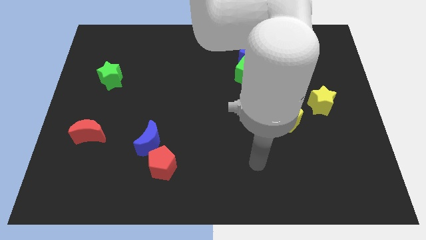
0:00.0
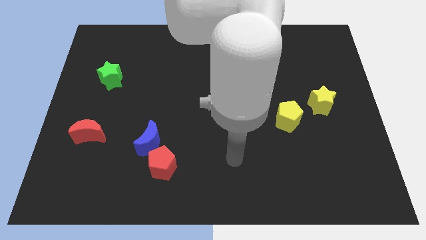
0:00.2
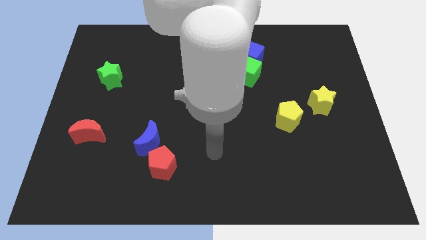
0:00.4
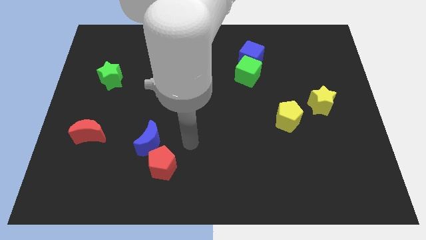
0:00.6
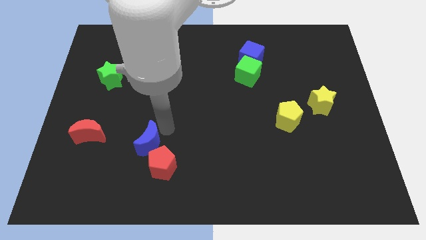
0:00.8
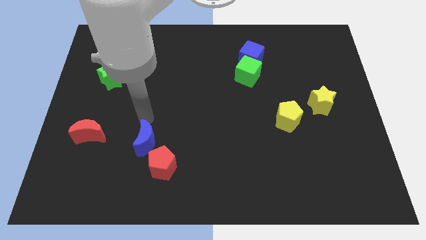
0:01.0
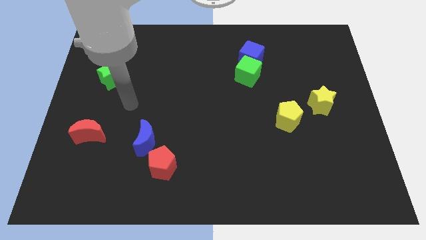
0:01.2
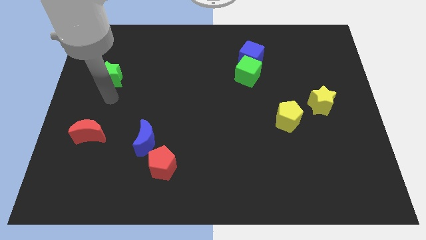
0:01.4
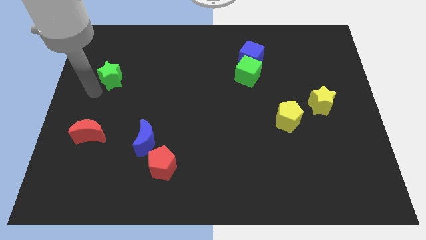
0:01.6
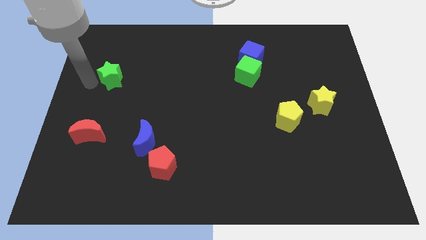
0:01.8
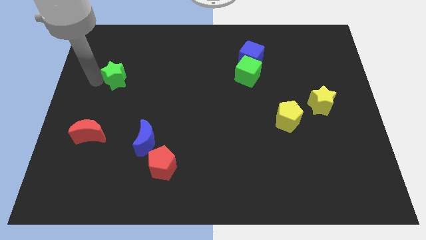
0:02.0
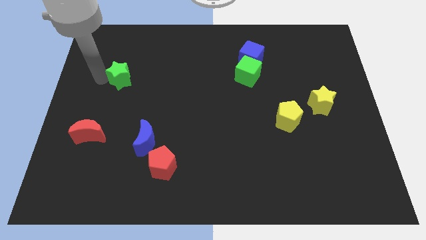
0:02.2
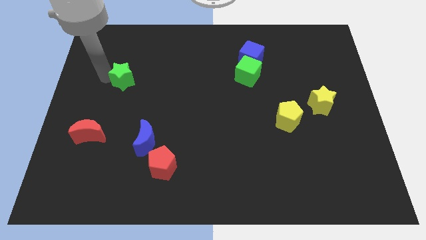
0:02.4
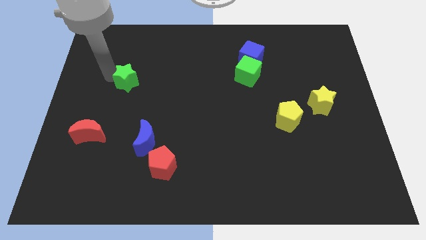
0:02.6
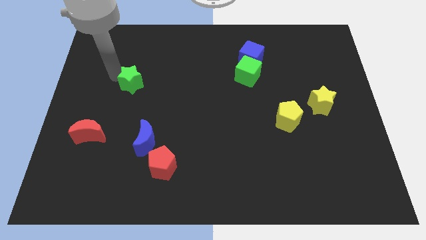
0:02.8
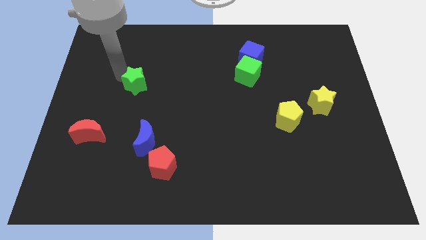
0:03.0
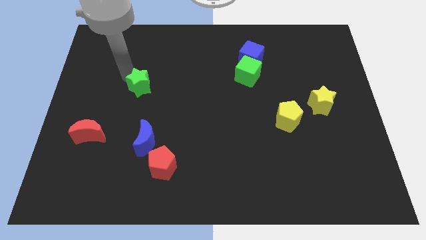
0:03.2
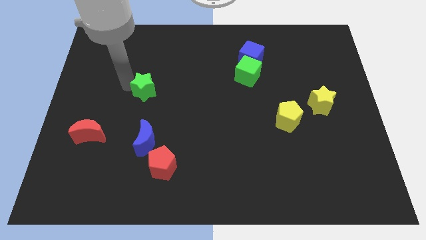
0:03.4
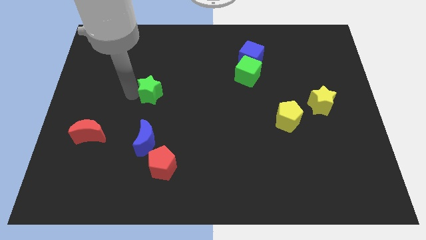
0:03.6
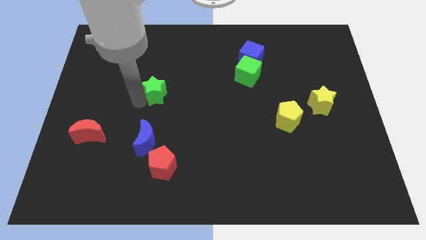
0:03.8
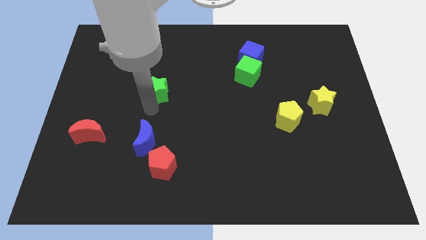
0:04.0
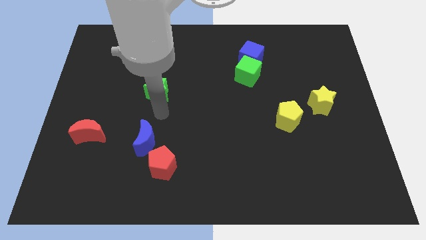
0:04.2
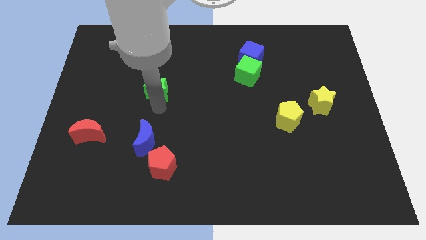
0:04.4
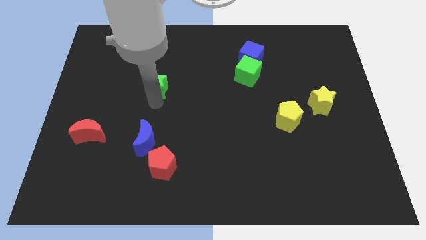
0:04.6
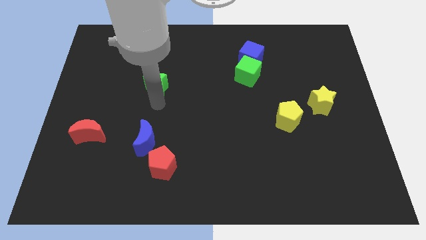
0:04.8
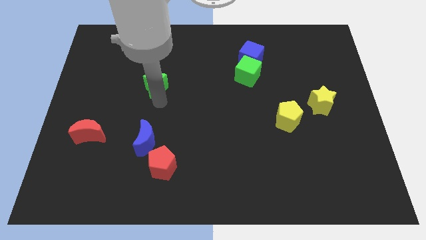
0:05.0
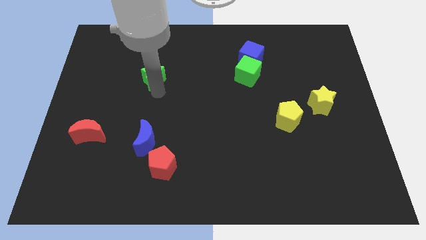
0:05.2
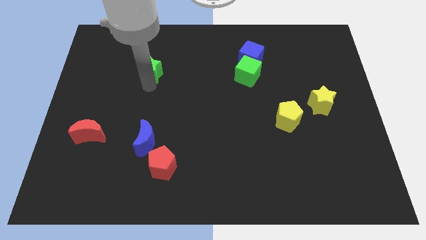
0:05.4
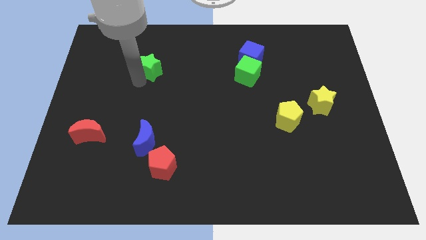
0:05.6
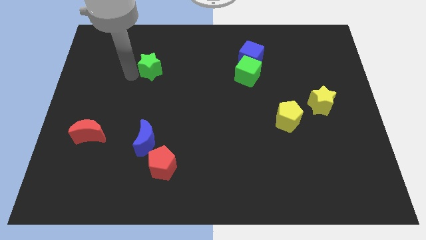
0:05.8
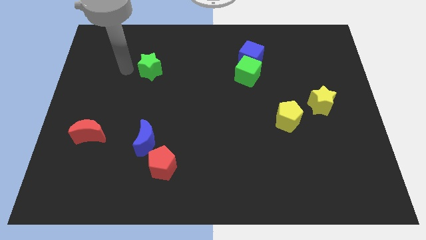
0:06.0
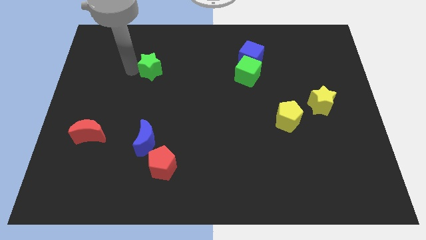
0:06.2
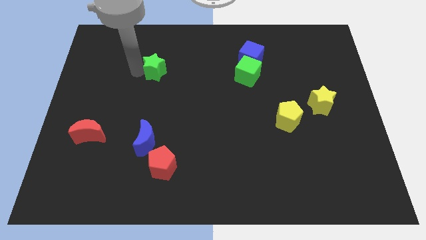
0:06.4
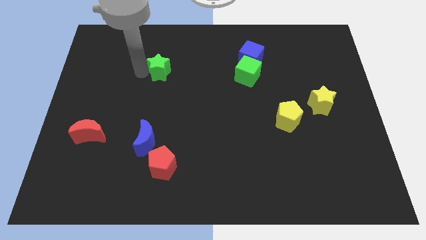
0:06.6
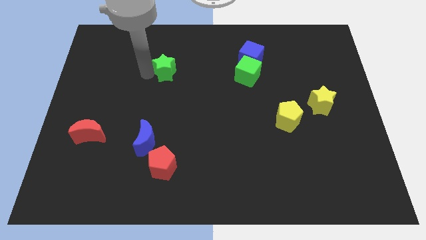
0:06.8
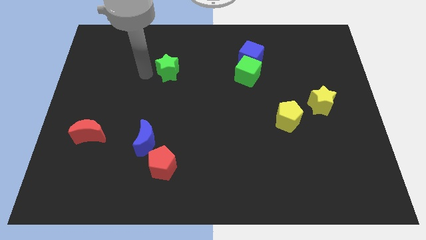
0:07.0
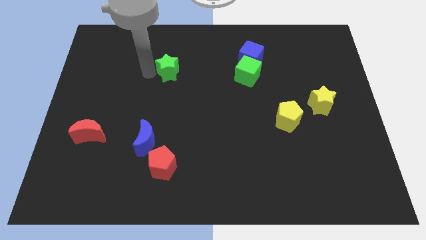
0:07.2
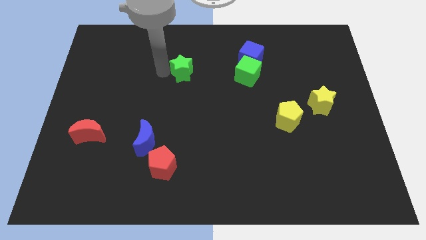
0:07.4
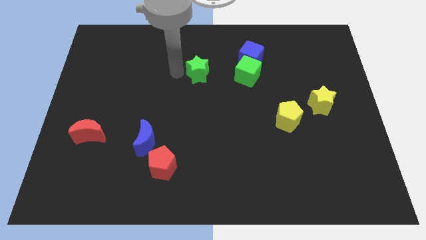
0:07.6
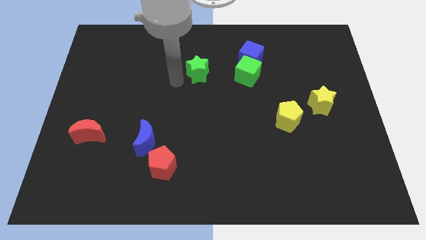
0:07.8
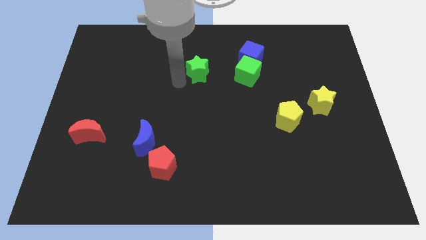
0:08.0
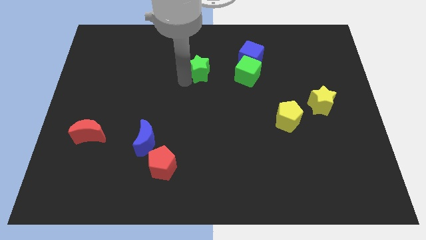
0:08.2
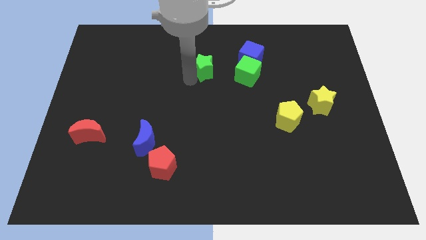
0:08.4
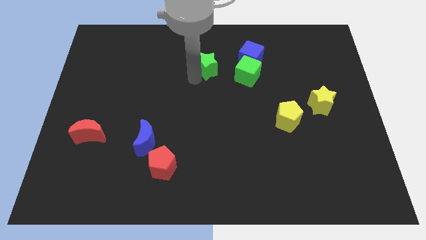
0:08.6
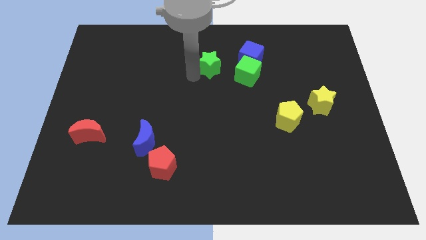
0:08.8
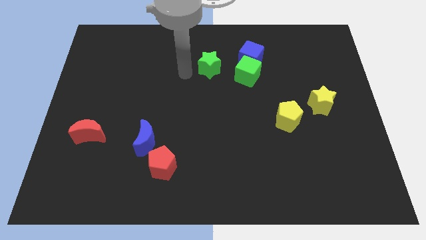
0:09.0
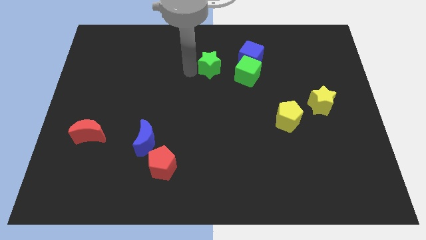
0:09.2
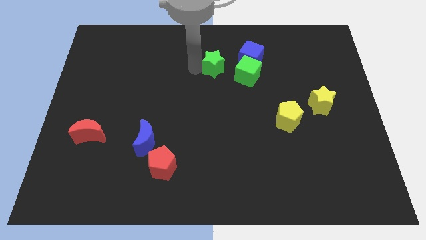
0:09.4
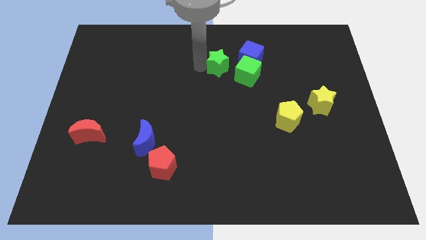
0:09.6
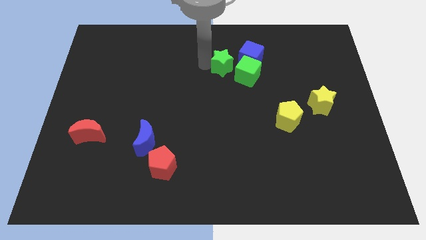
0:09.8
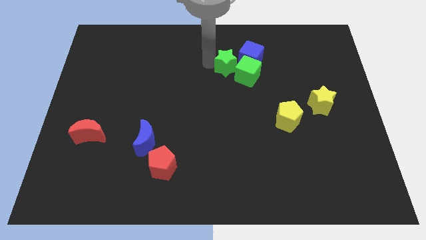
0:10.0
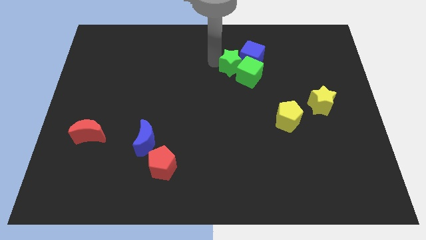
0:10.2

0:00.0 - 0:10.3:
move the green star towards the blue cube

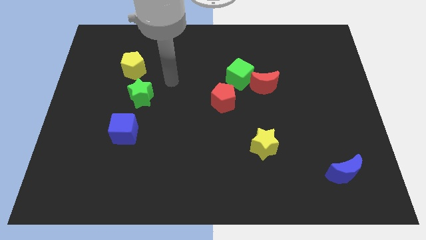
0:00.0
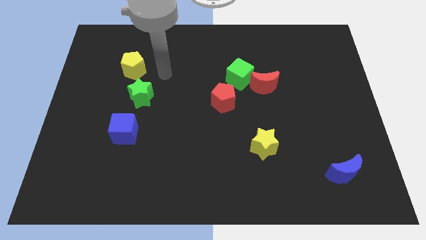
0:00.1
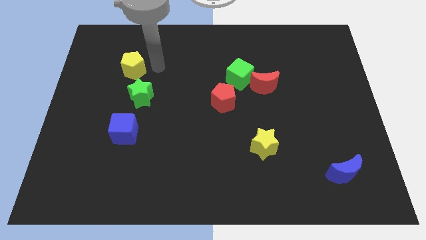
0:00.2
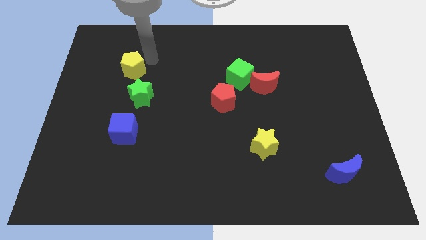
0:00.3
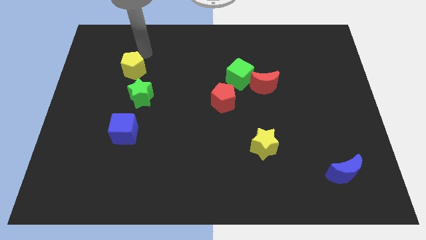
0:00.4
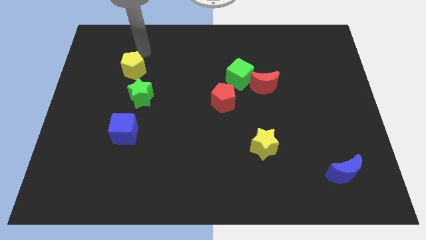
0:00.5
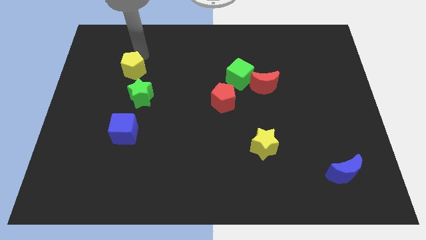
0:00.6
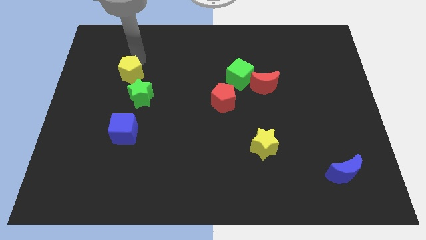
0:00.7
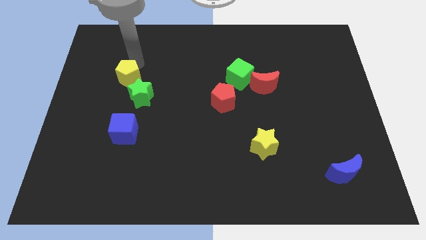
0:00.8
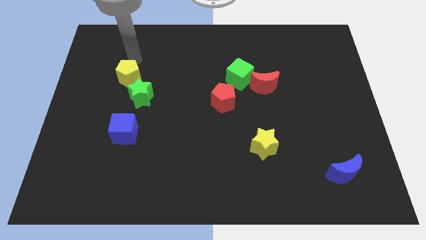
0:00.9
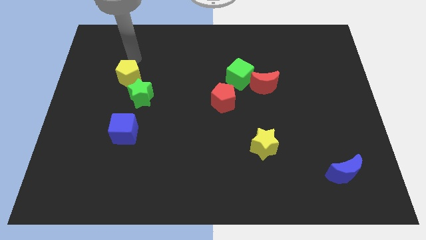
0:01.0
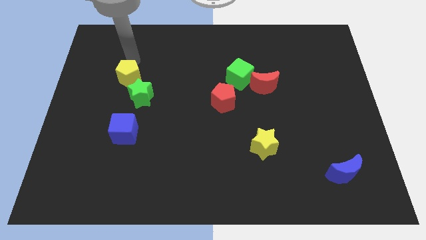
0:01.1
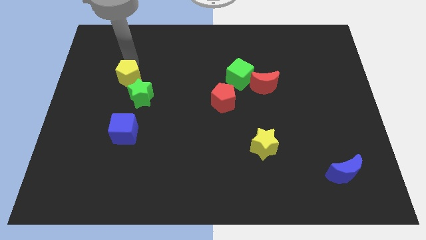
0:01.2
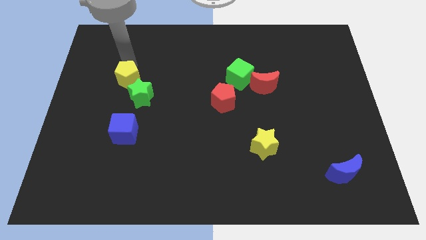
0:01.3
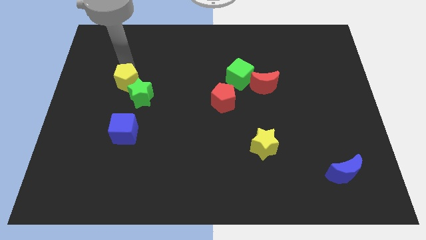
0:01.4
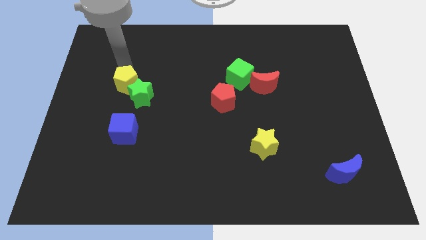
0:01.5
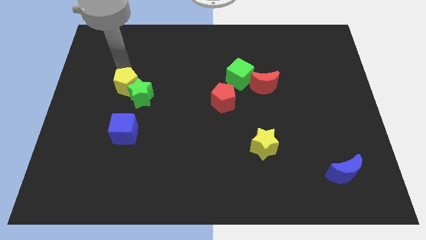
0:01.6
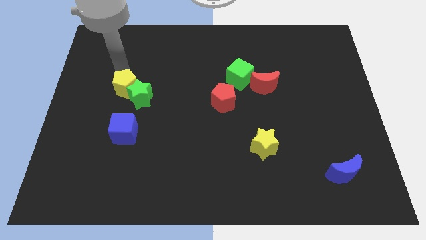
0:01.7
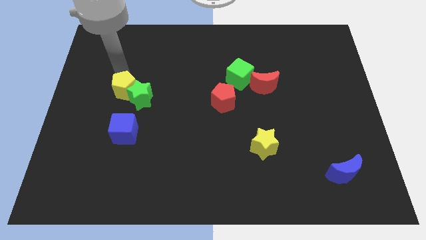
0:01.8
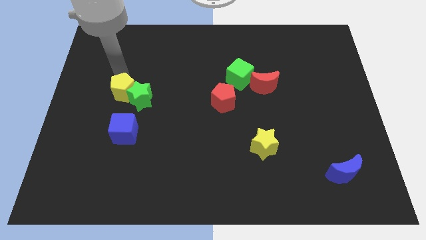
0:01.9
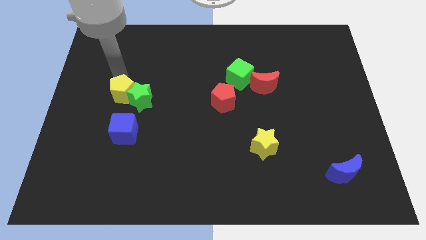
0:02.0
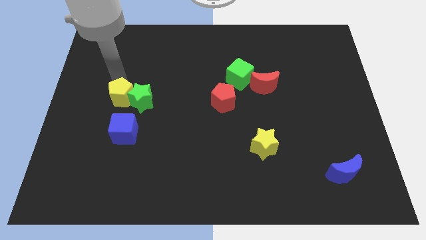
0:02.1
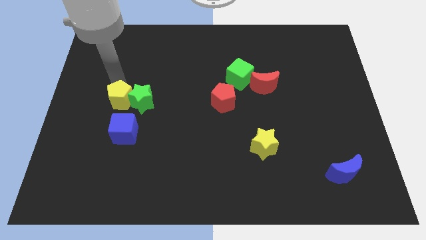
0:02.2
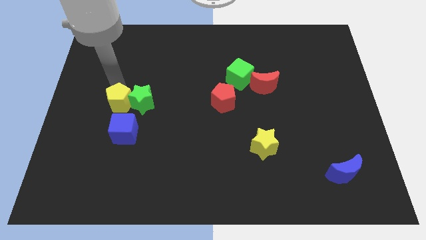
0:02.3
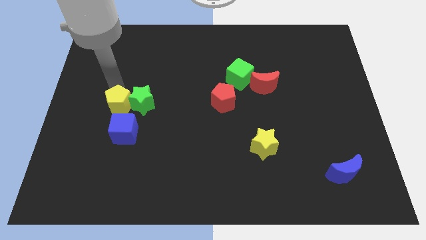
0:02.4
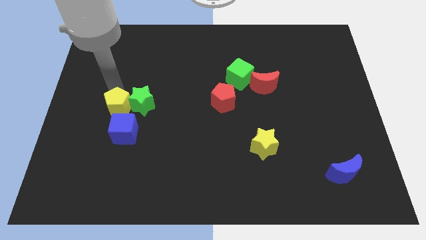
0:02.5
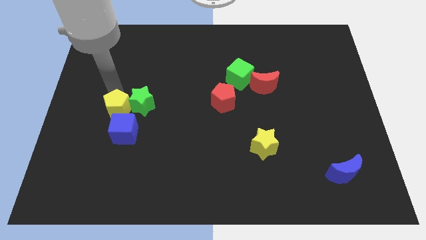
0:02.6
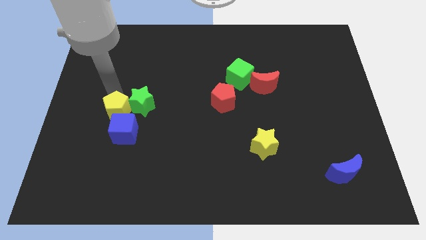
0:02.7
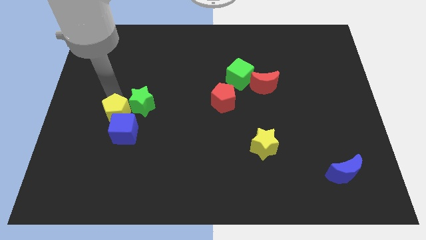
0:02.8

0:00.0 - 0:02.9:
push the yellow pentagon close to the blue cube
